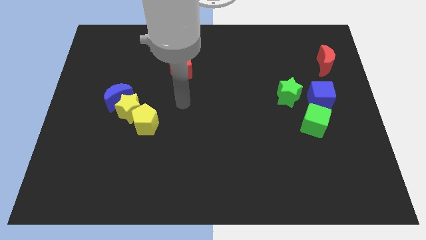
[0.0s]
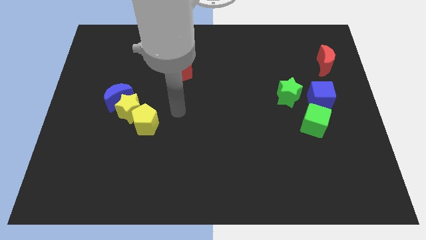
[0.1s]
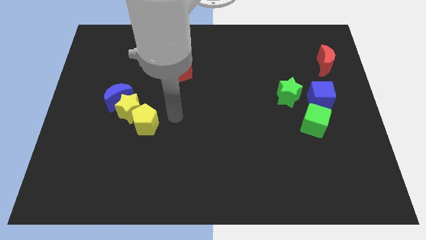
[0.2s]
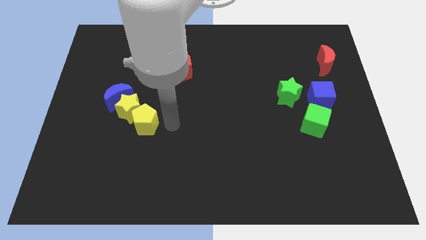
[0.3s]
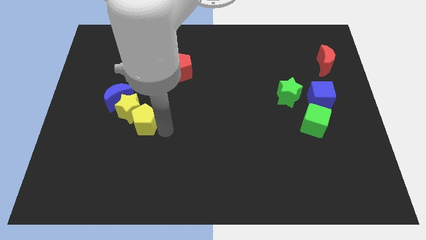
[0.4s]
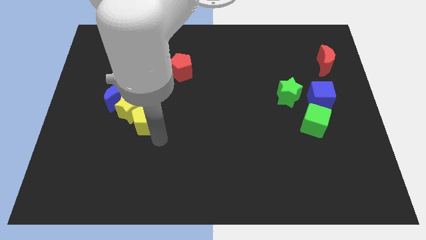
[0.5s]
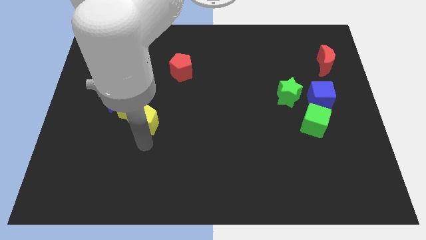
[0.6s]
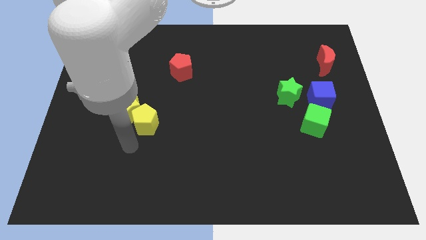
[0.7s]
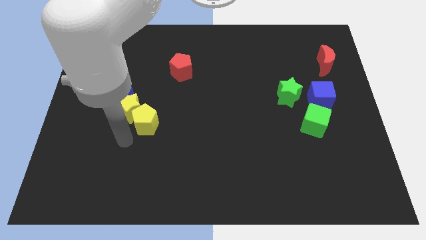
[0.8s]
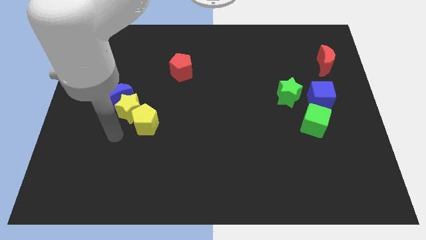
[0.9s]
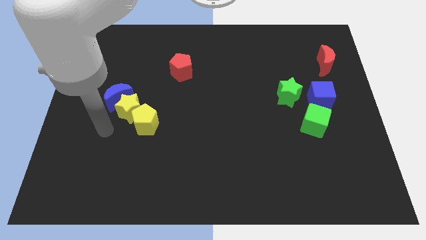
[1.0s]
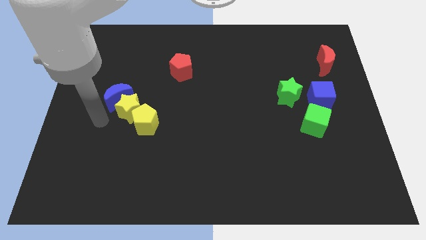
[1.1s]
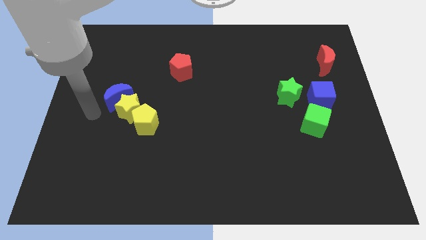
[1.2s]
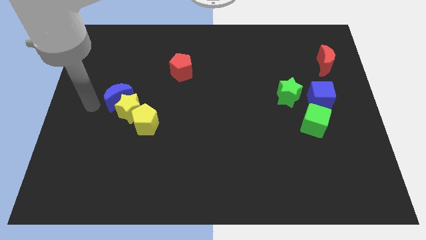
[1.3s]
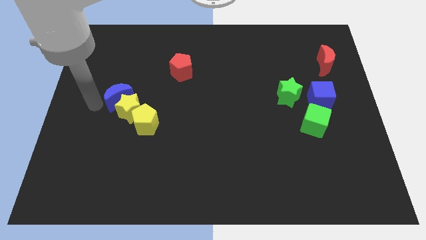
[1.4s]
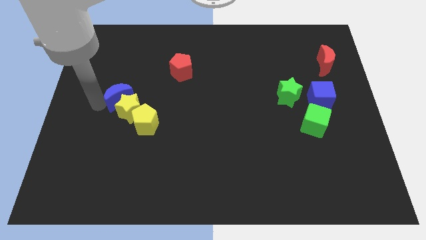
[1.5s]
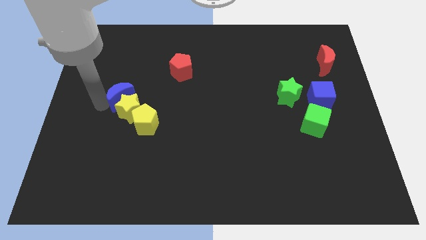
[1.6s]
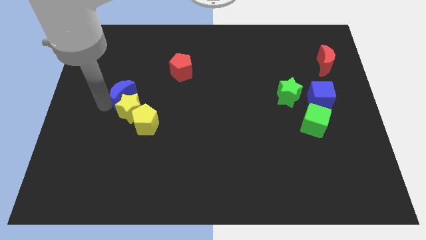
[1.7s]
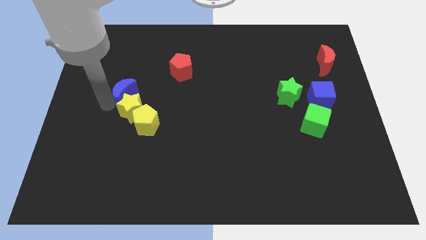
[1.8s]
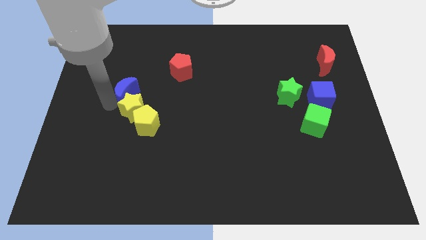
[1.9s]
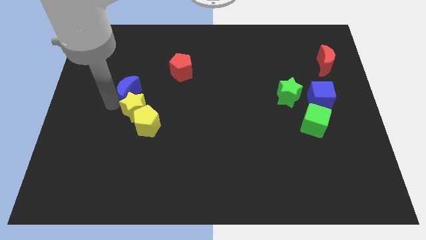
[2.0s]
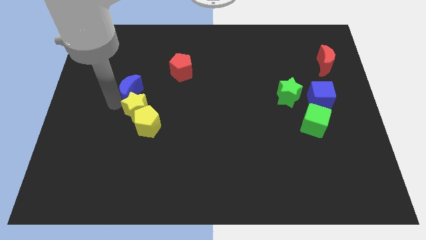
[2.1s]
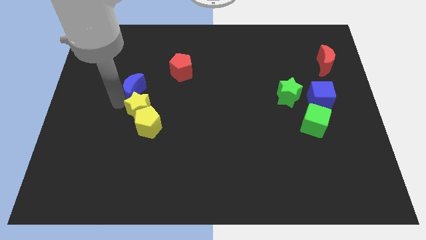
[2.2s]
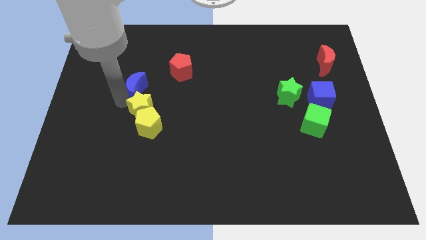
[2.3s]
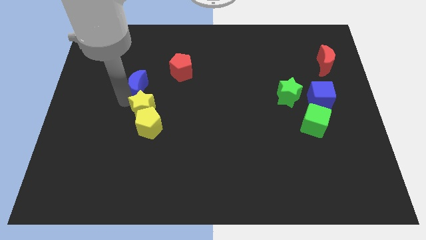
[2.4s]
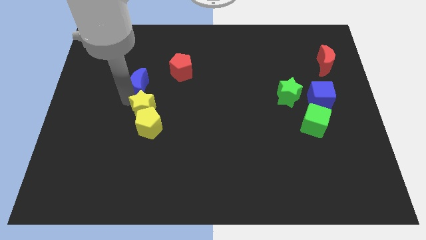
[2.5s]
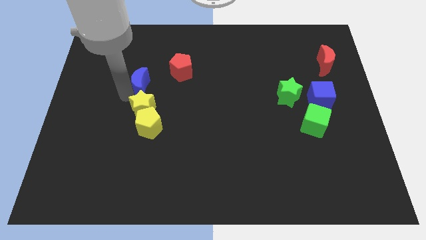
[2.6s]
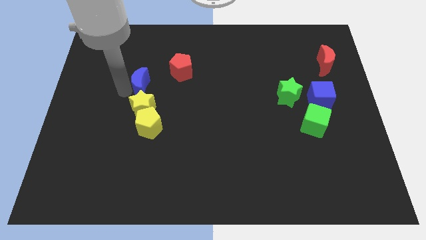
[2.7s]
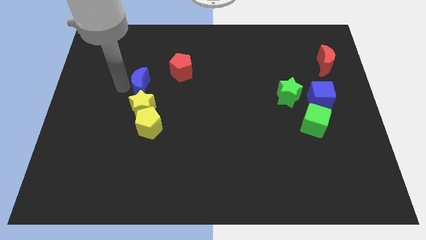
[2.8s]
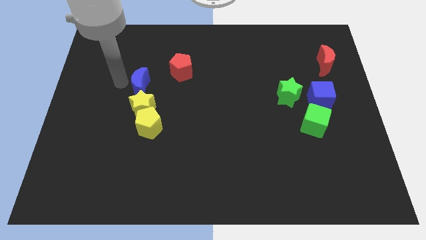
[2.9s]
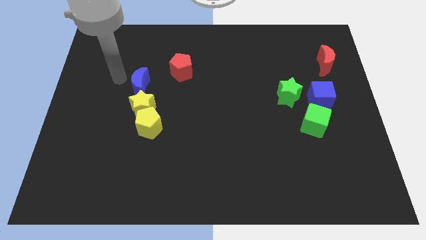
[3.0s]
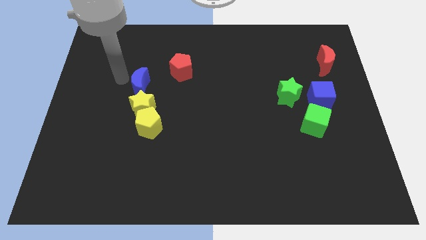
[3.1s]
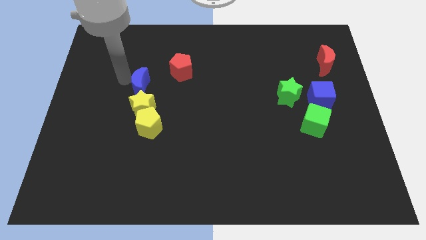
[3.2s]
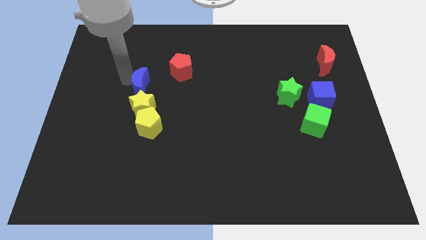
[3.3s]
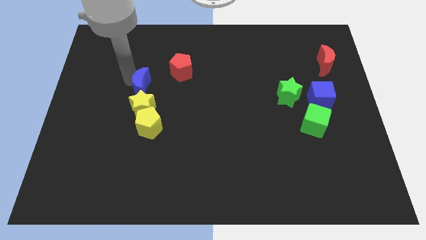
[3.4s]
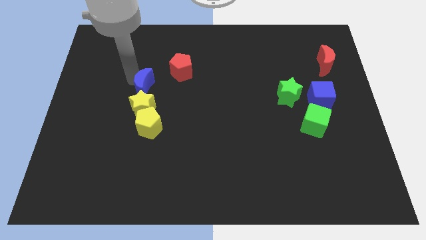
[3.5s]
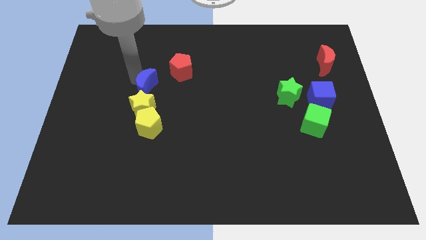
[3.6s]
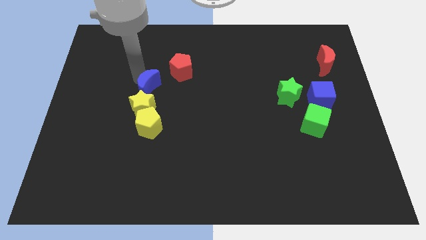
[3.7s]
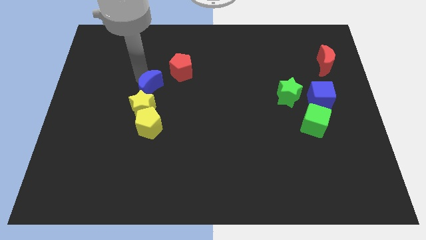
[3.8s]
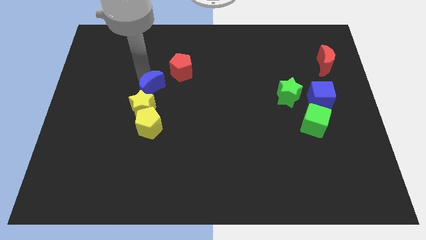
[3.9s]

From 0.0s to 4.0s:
move the blue moon to the right a little bit

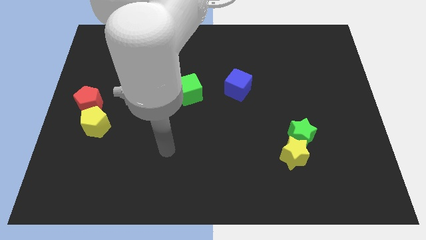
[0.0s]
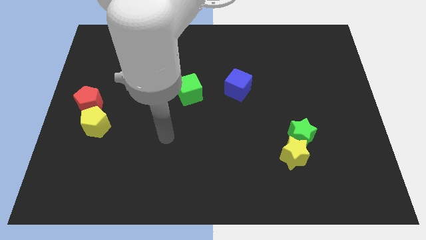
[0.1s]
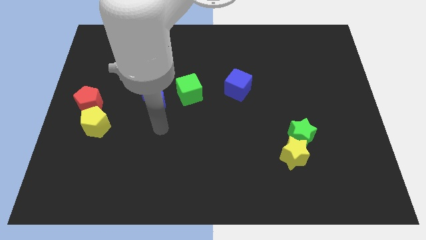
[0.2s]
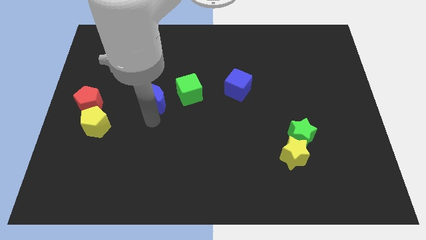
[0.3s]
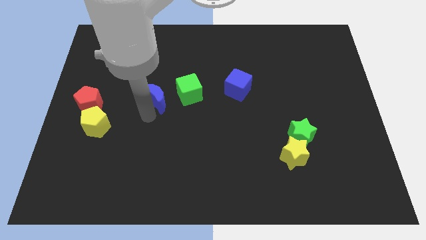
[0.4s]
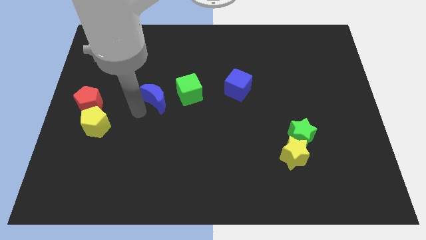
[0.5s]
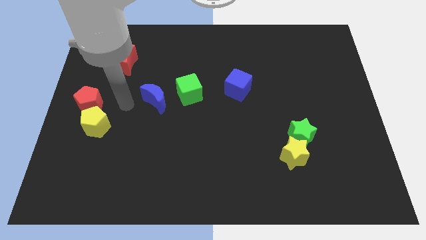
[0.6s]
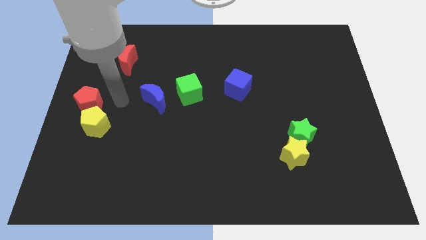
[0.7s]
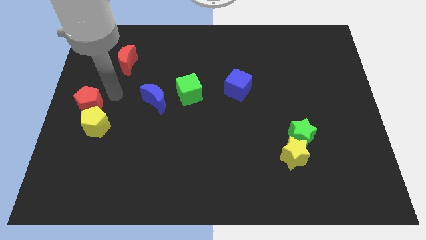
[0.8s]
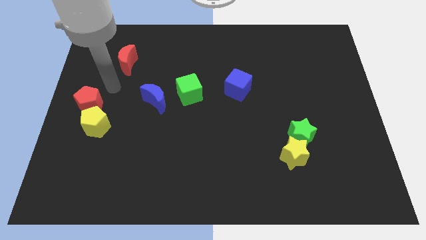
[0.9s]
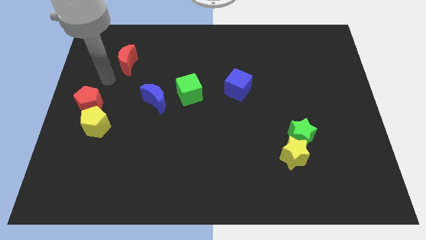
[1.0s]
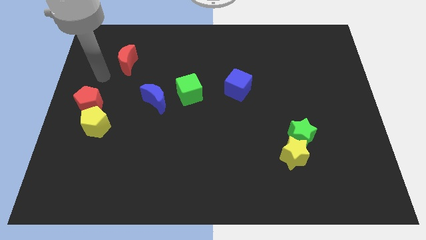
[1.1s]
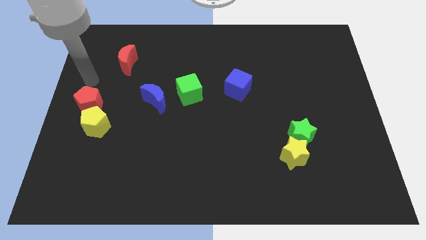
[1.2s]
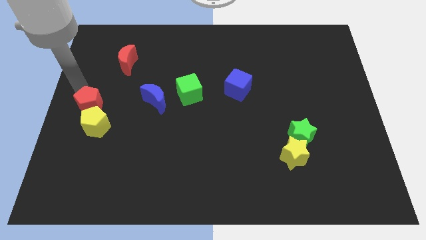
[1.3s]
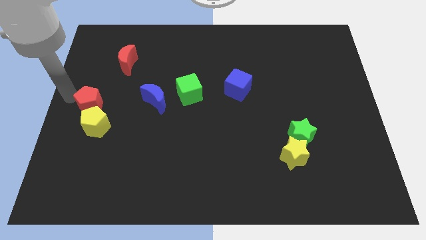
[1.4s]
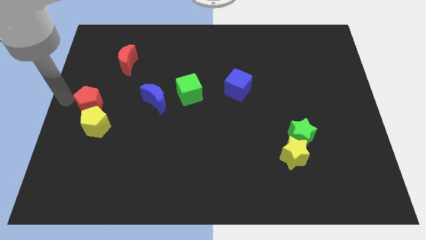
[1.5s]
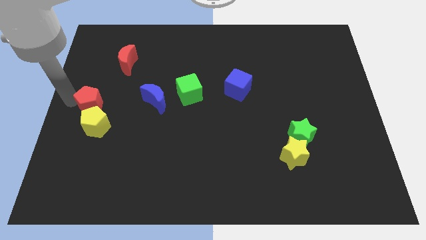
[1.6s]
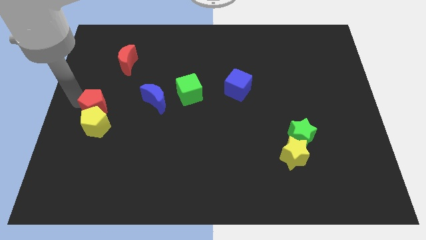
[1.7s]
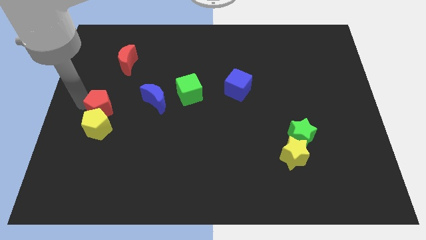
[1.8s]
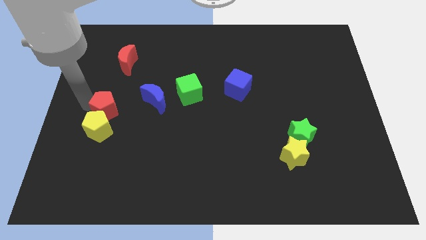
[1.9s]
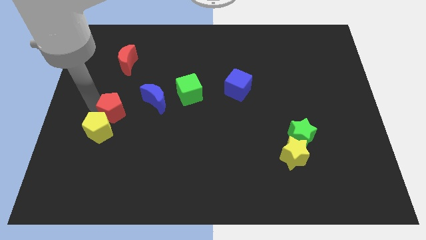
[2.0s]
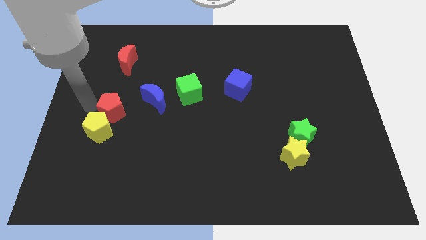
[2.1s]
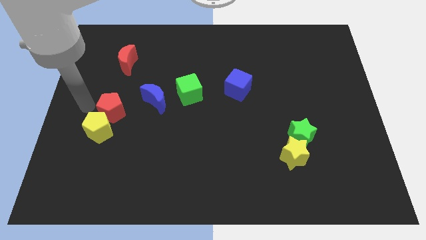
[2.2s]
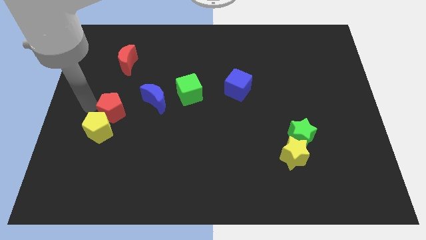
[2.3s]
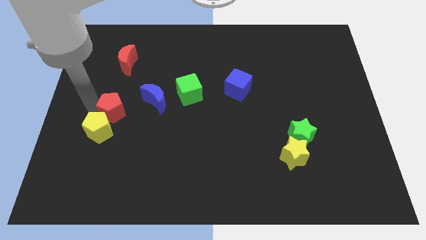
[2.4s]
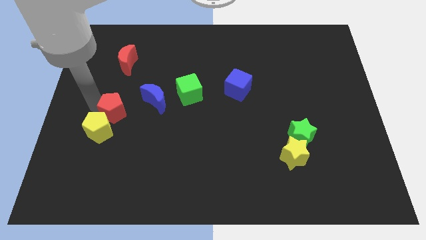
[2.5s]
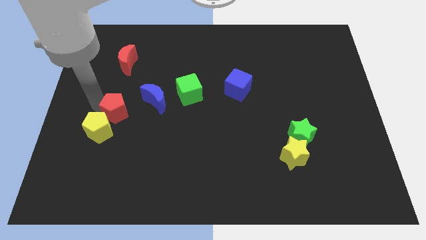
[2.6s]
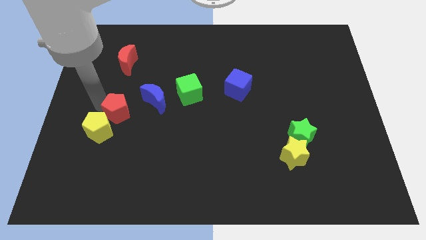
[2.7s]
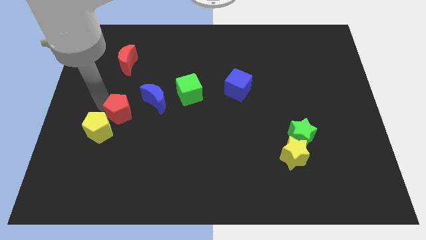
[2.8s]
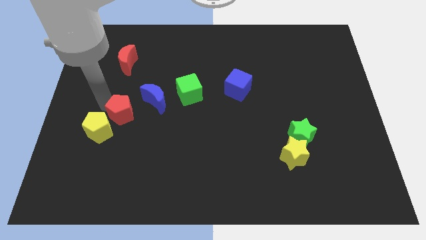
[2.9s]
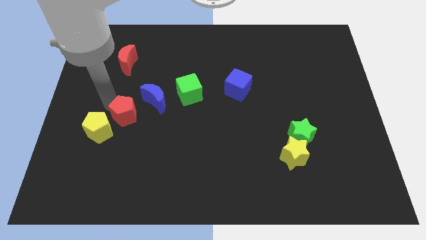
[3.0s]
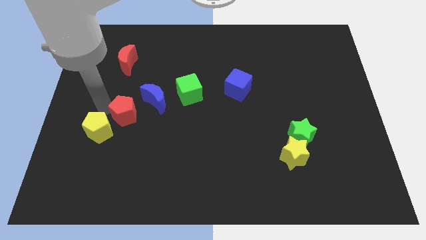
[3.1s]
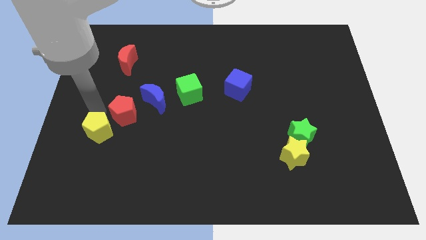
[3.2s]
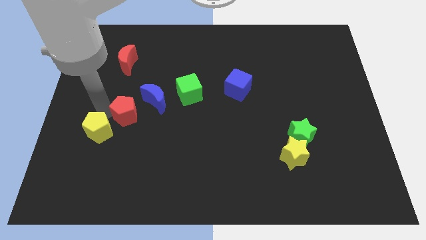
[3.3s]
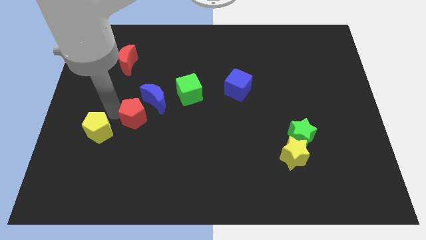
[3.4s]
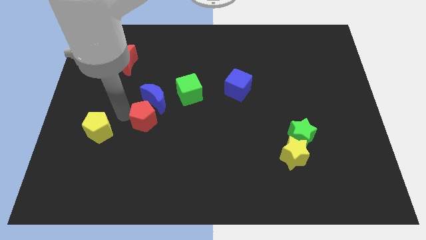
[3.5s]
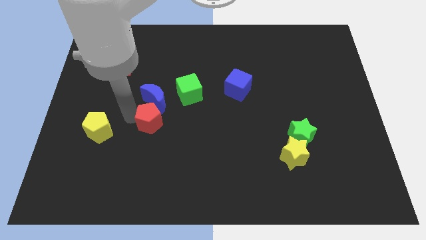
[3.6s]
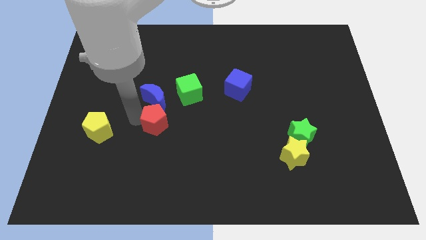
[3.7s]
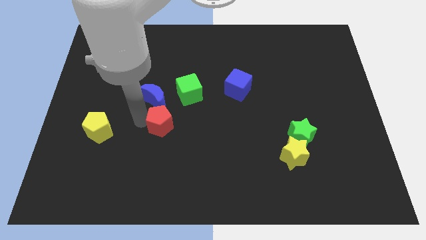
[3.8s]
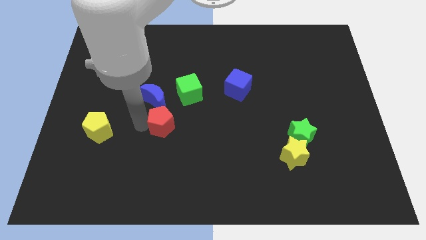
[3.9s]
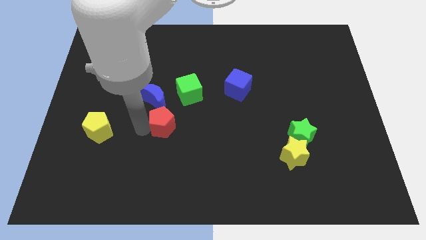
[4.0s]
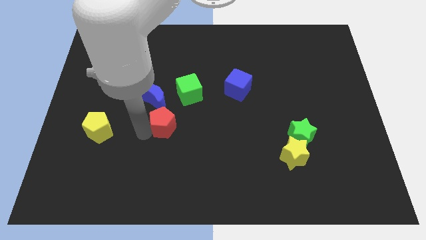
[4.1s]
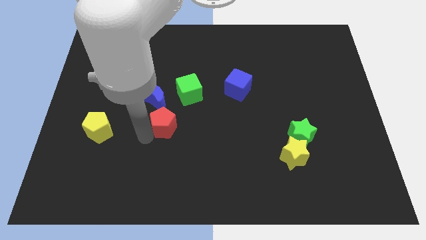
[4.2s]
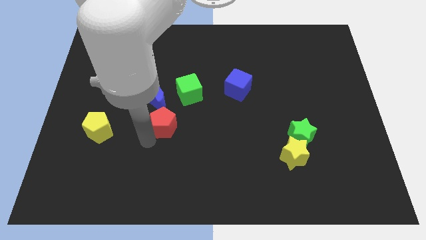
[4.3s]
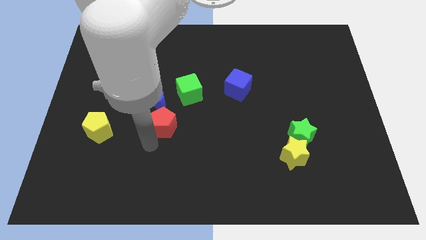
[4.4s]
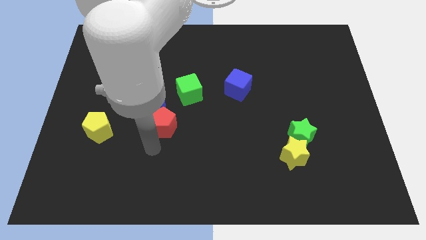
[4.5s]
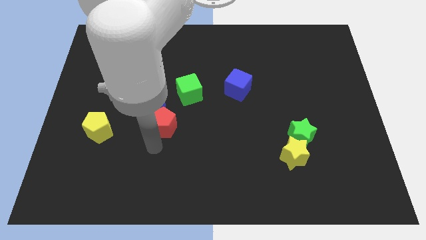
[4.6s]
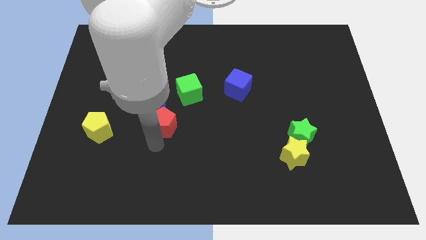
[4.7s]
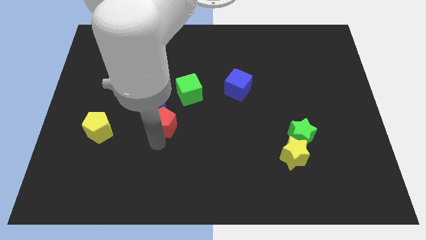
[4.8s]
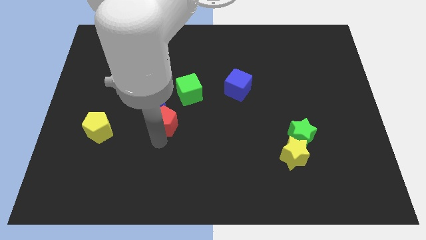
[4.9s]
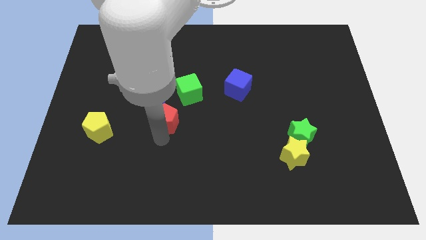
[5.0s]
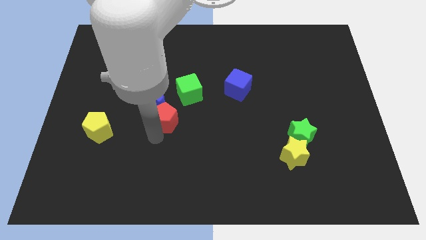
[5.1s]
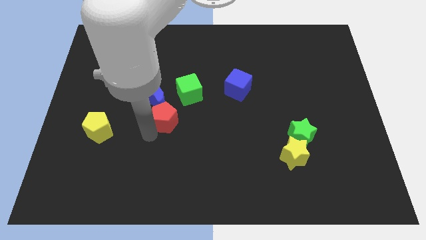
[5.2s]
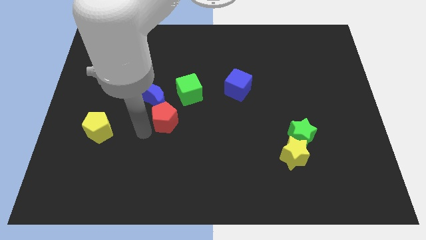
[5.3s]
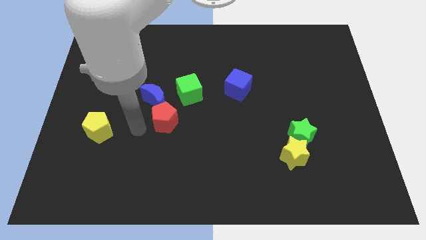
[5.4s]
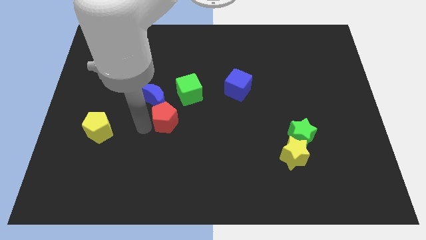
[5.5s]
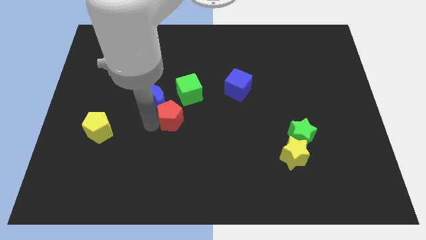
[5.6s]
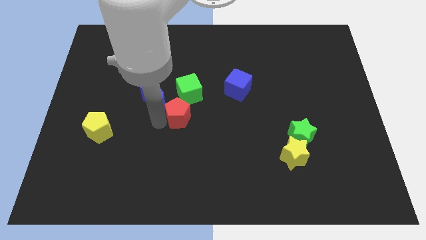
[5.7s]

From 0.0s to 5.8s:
push the red pentagon to the right
